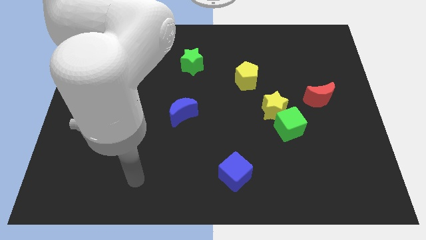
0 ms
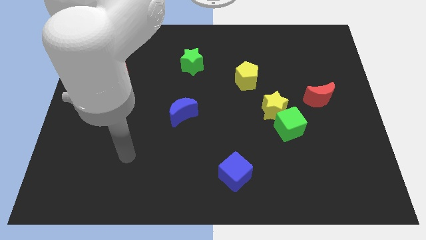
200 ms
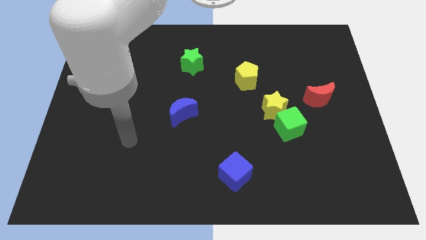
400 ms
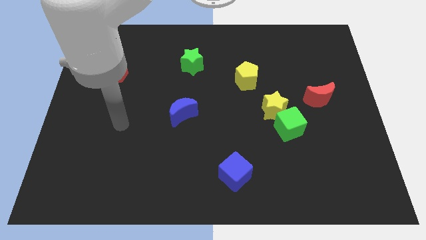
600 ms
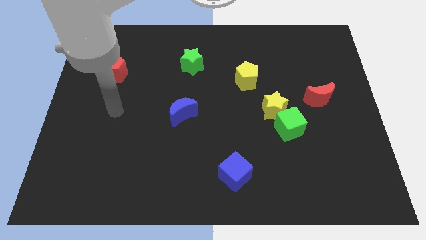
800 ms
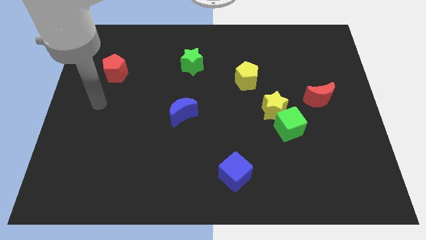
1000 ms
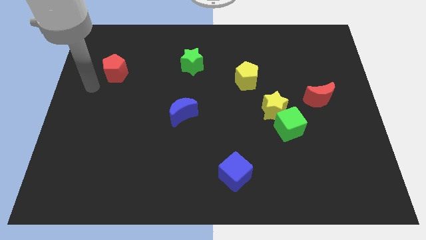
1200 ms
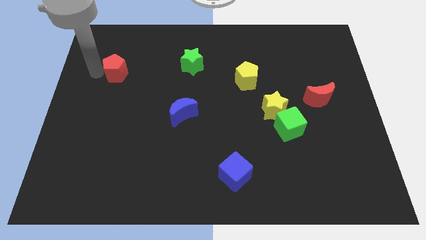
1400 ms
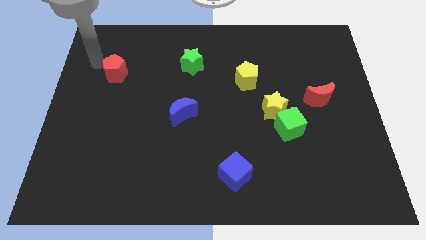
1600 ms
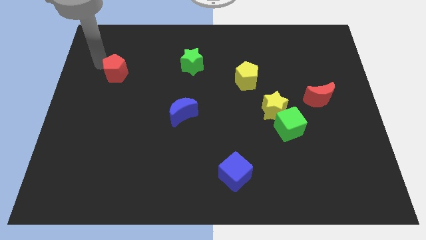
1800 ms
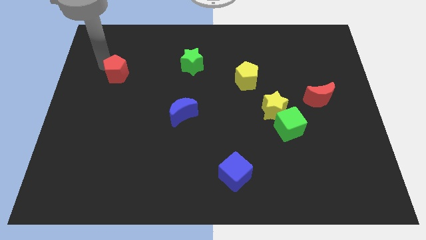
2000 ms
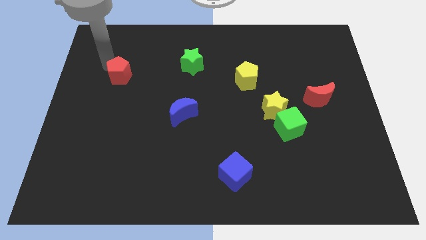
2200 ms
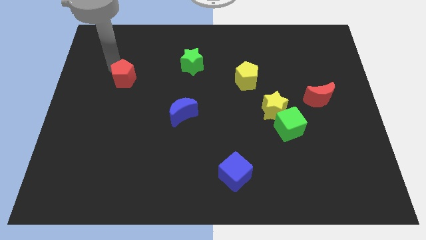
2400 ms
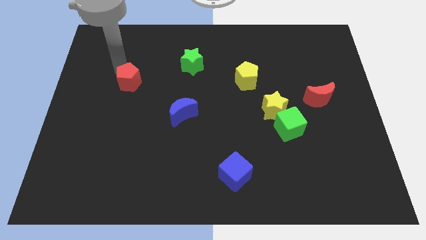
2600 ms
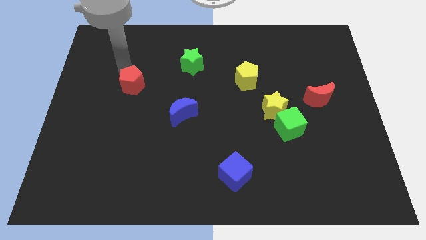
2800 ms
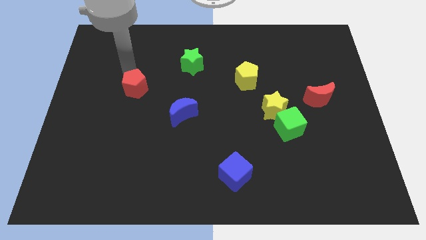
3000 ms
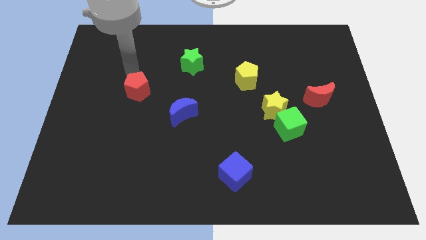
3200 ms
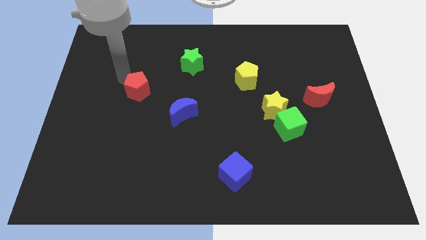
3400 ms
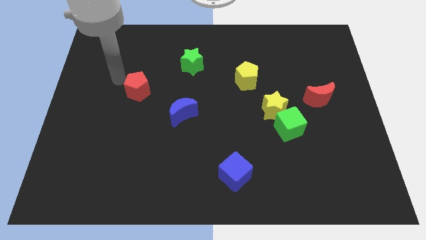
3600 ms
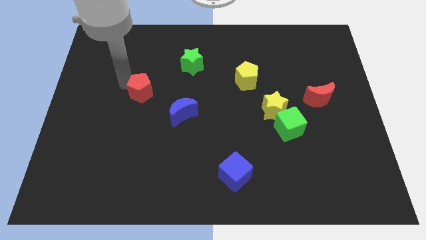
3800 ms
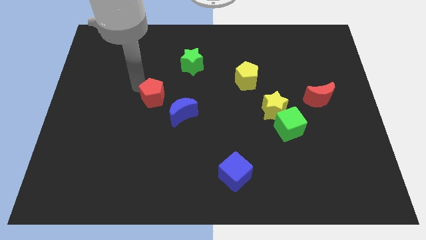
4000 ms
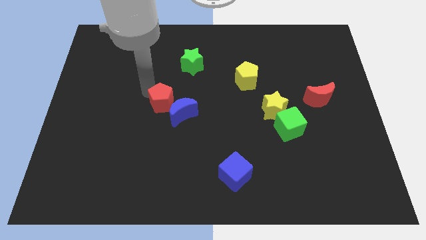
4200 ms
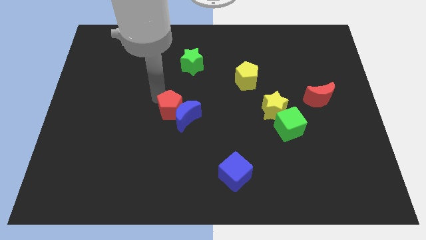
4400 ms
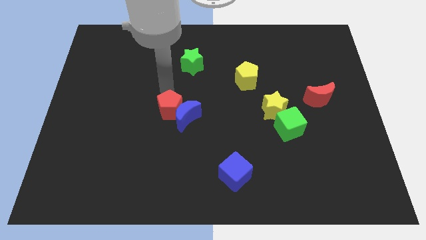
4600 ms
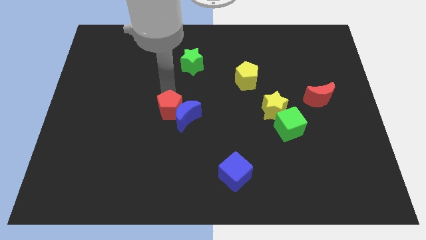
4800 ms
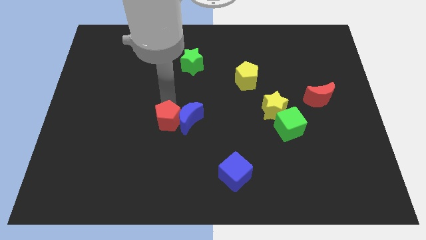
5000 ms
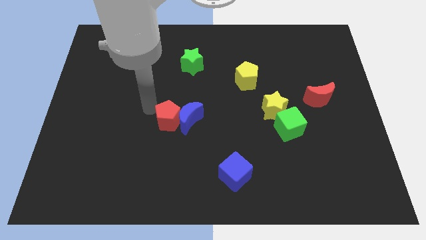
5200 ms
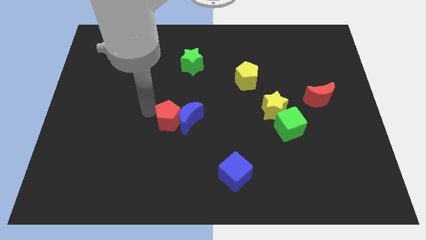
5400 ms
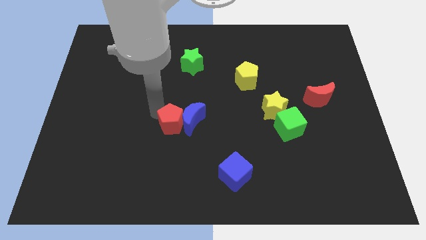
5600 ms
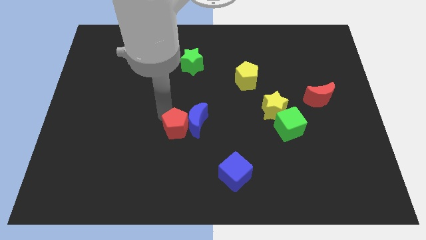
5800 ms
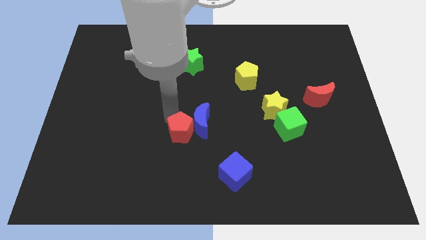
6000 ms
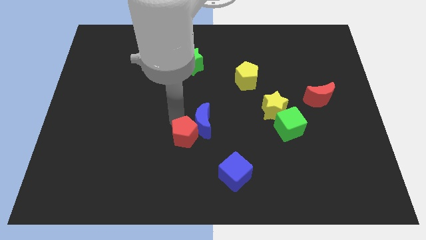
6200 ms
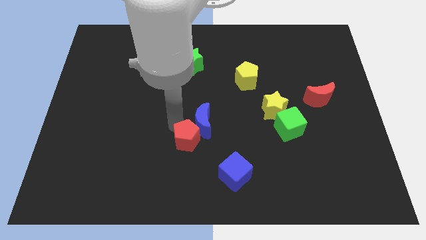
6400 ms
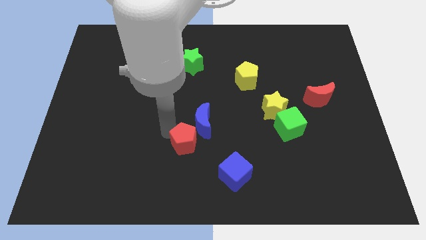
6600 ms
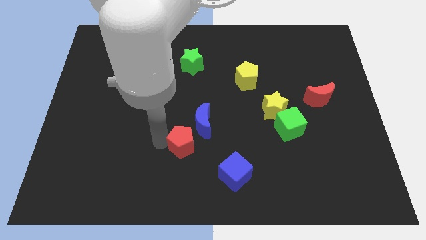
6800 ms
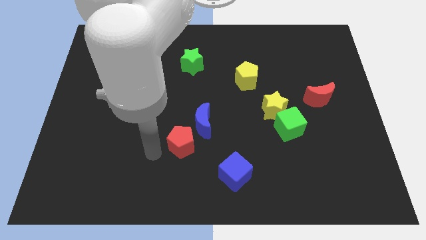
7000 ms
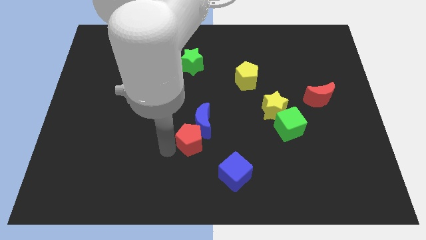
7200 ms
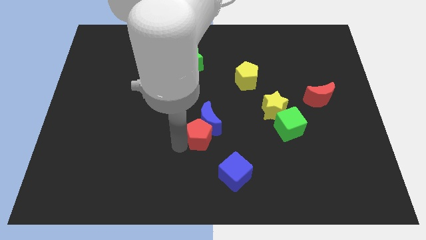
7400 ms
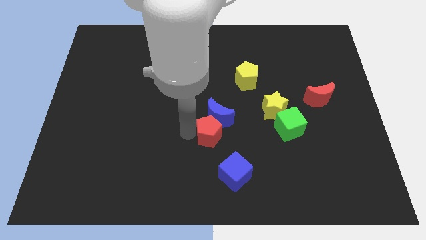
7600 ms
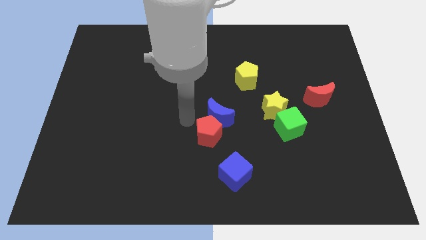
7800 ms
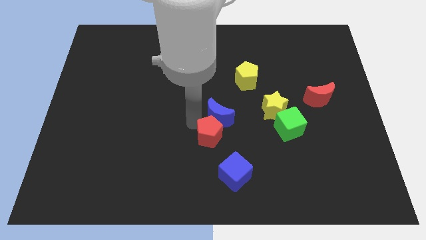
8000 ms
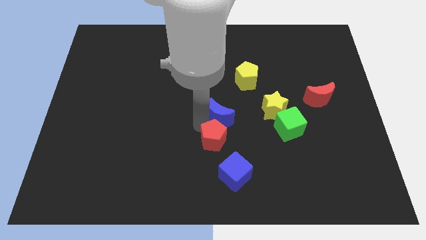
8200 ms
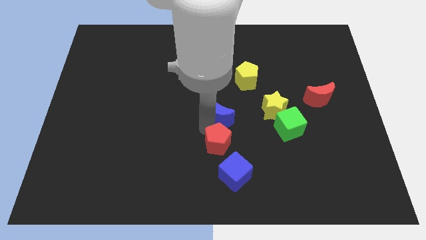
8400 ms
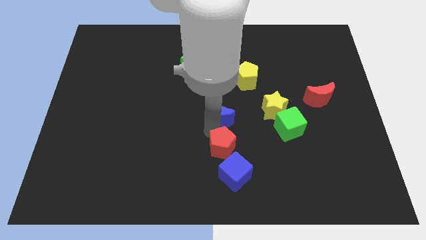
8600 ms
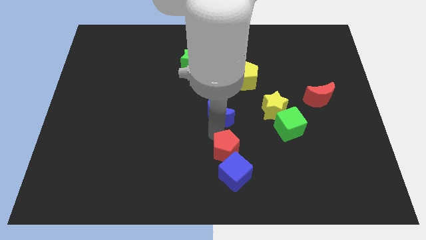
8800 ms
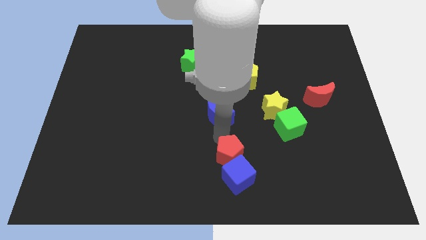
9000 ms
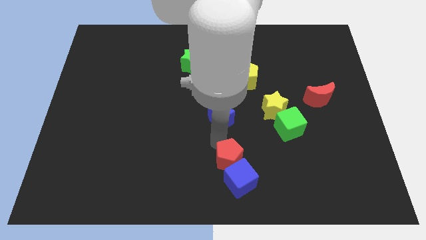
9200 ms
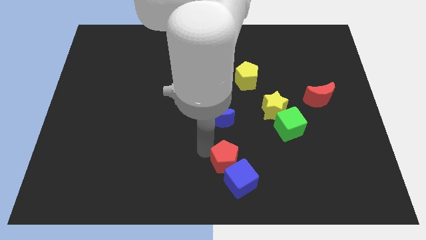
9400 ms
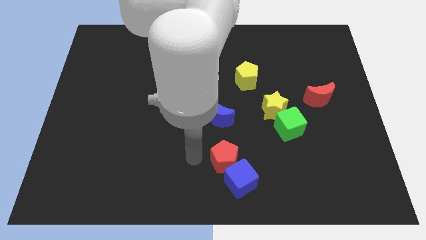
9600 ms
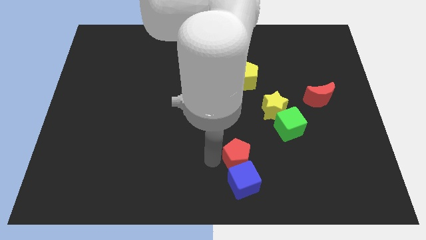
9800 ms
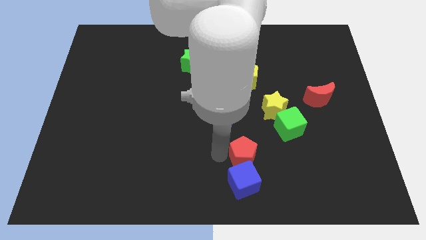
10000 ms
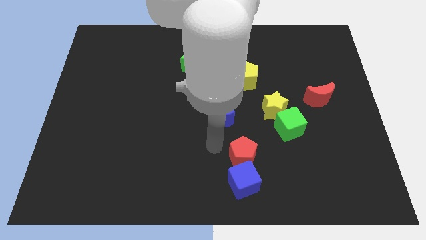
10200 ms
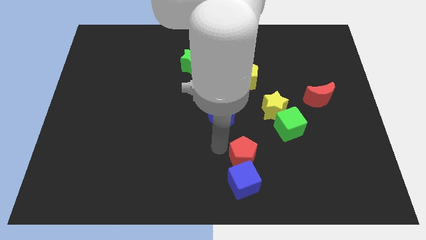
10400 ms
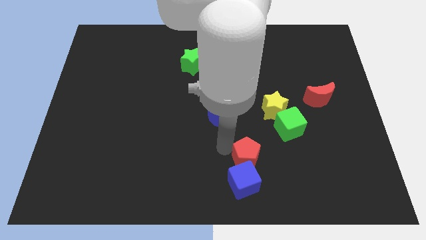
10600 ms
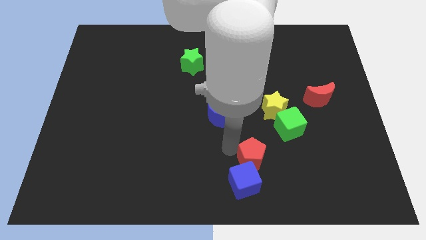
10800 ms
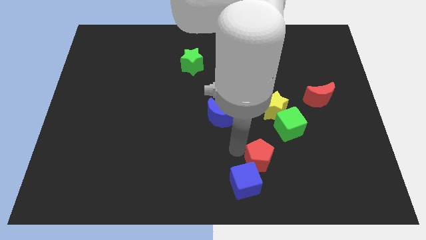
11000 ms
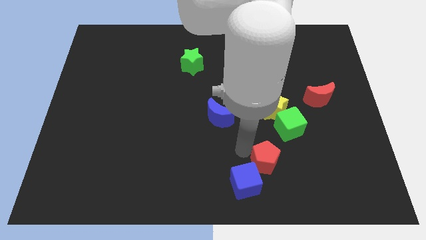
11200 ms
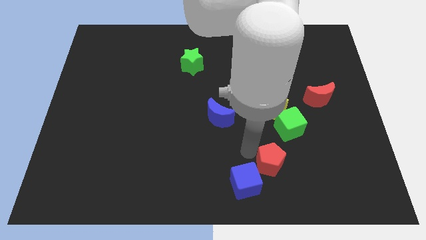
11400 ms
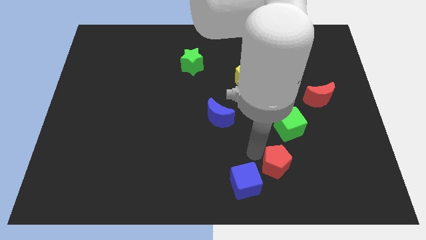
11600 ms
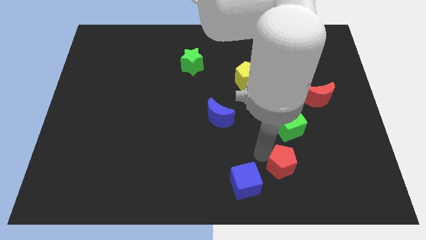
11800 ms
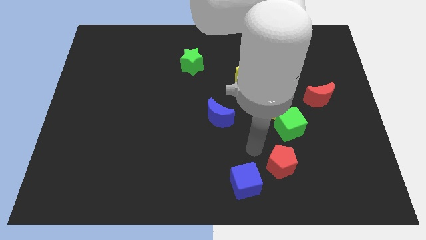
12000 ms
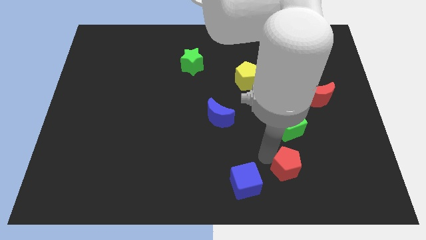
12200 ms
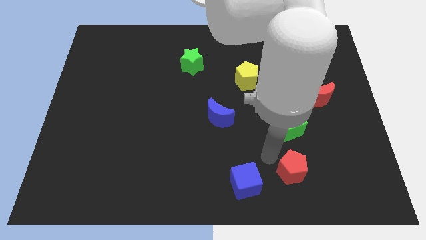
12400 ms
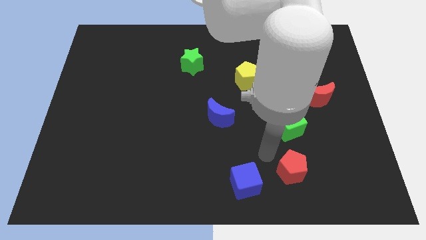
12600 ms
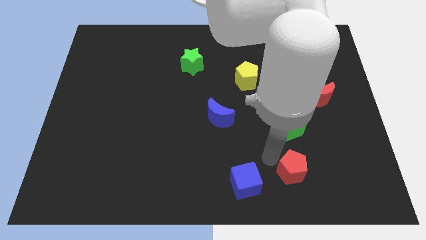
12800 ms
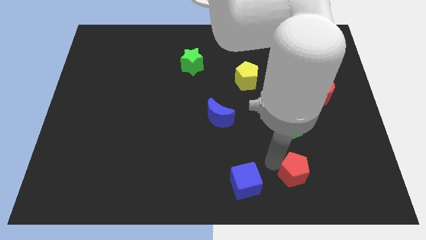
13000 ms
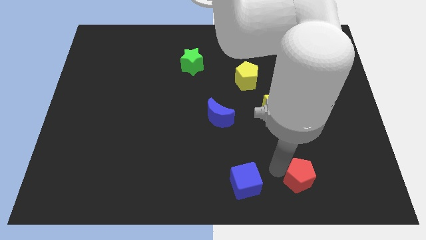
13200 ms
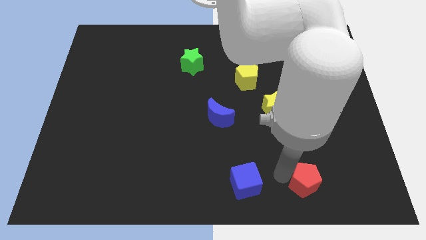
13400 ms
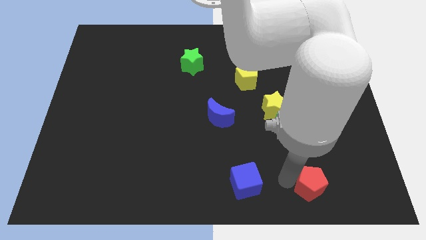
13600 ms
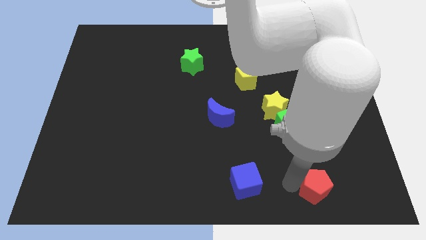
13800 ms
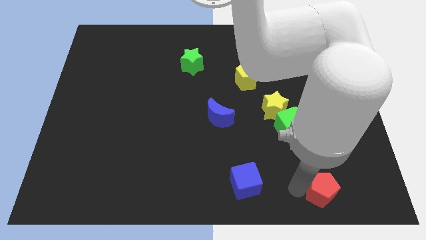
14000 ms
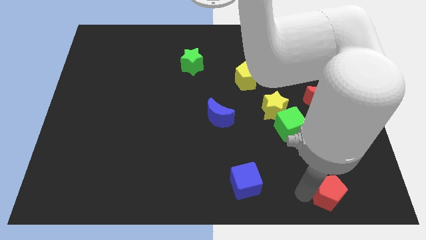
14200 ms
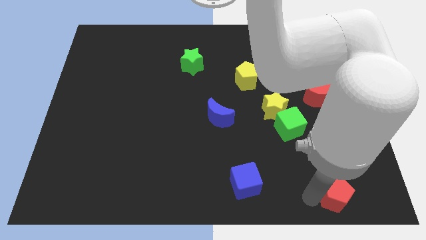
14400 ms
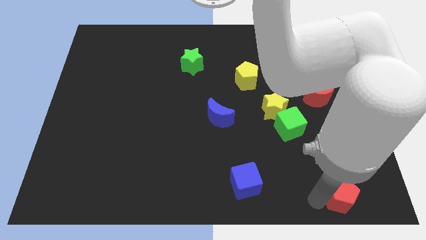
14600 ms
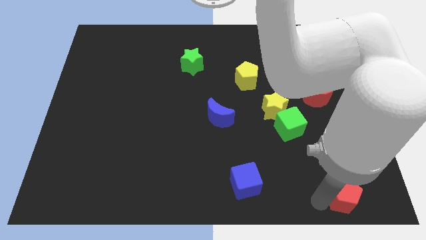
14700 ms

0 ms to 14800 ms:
put the red pentagon to the bottom right
